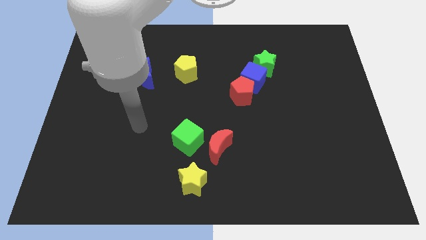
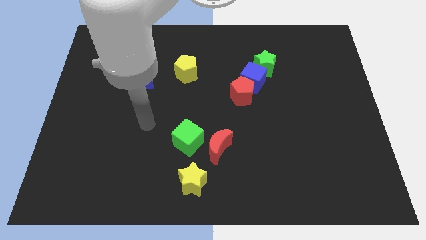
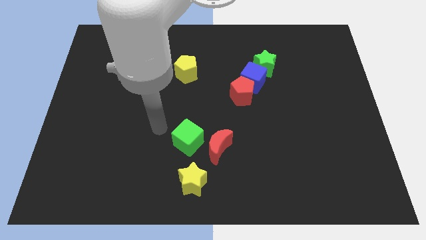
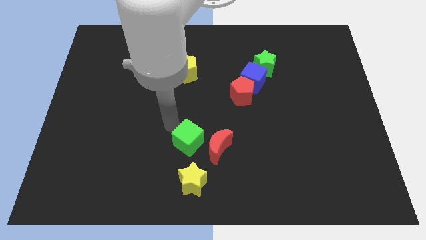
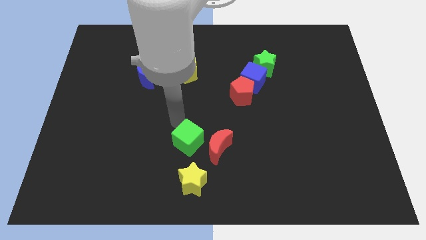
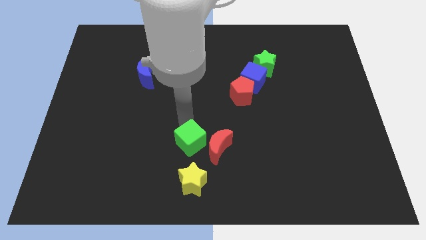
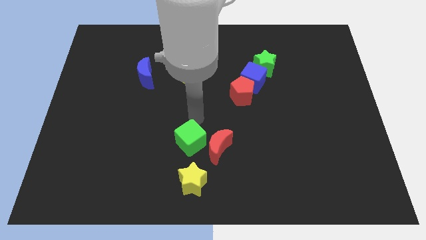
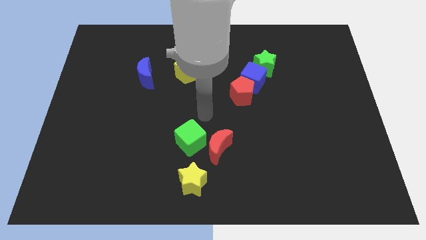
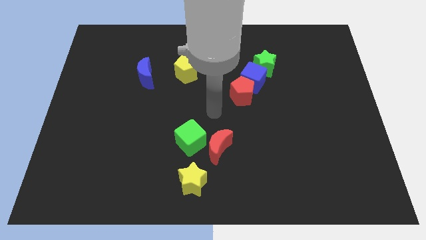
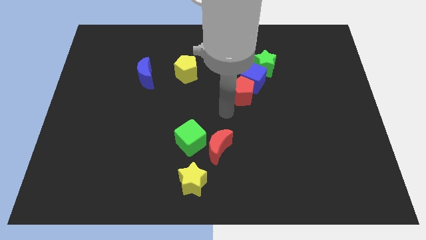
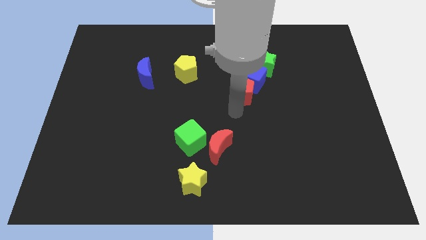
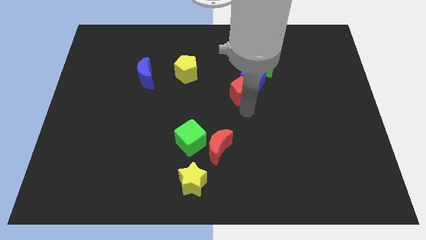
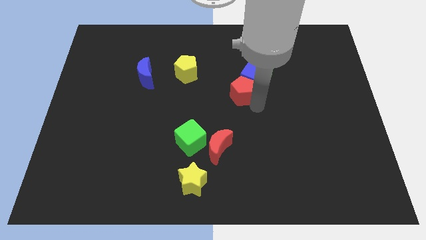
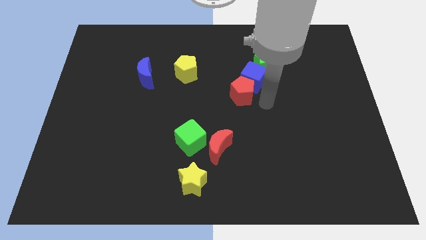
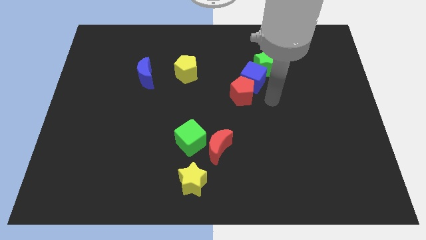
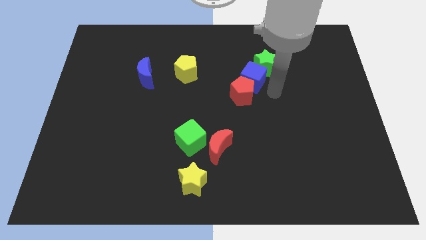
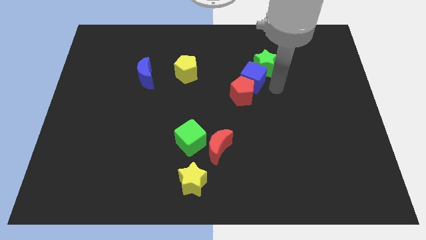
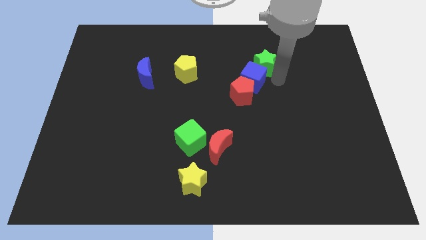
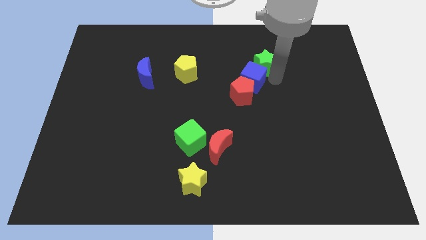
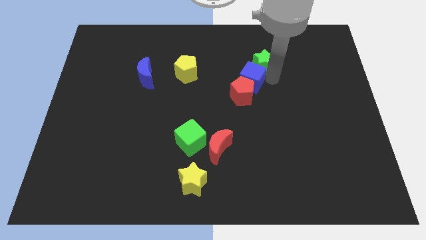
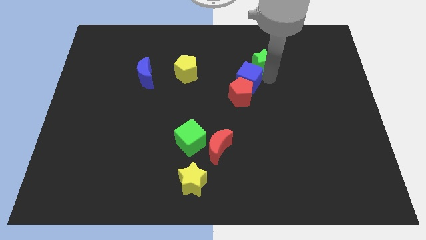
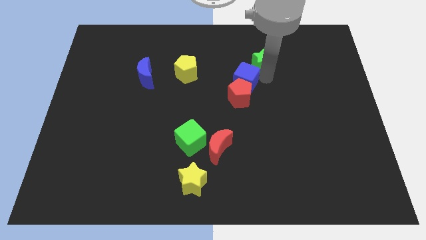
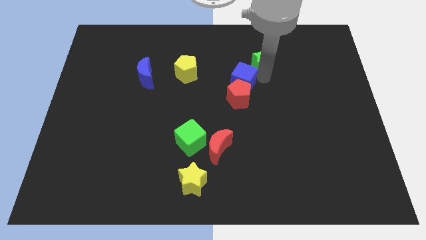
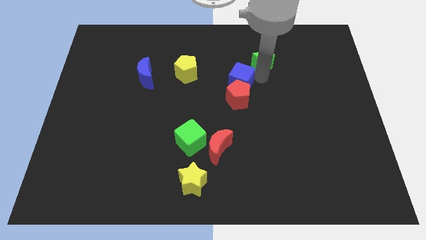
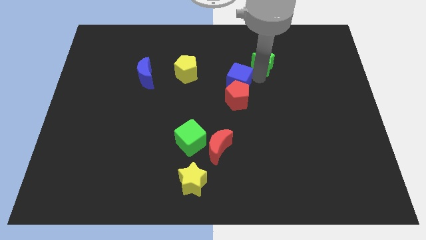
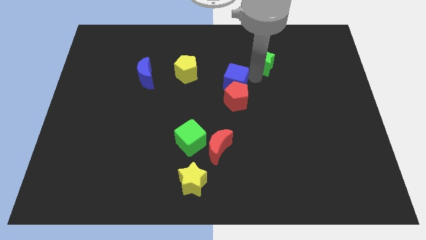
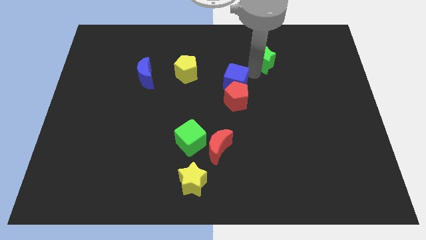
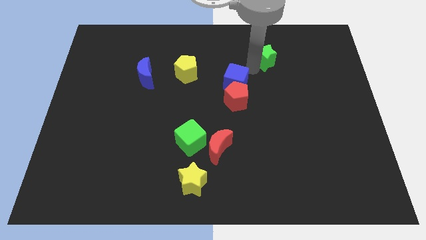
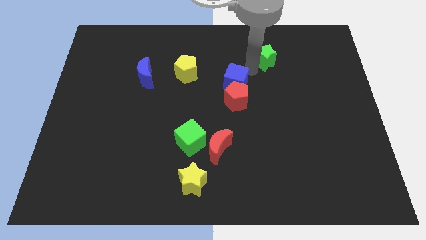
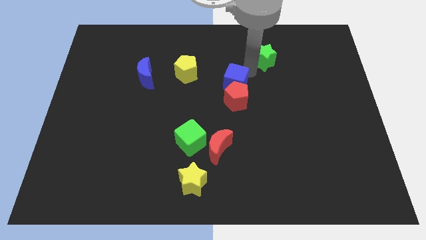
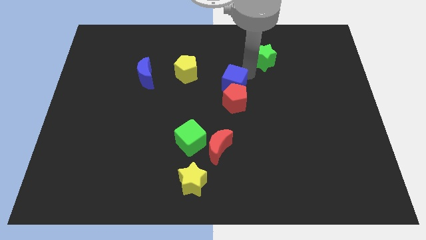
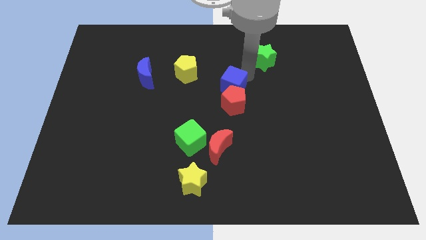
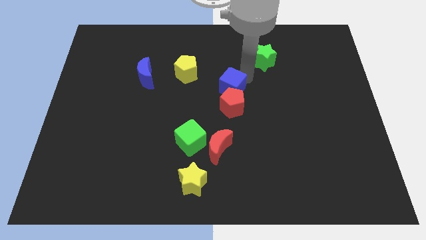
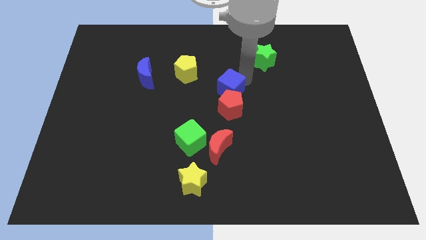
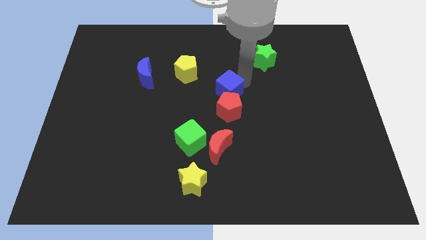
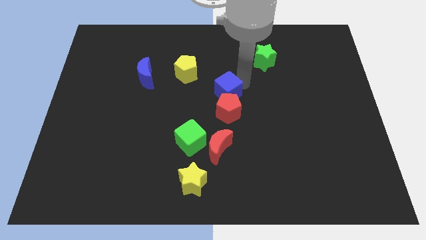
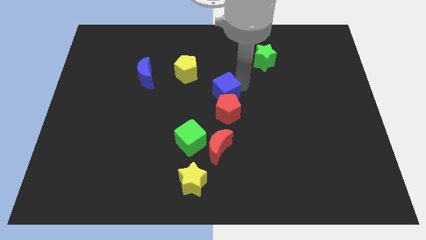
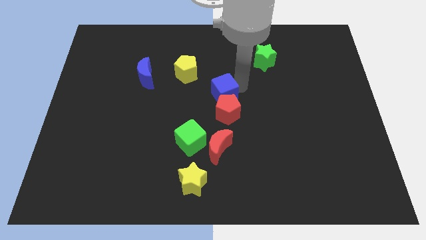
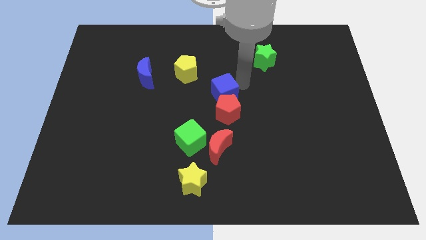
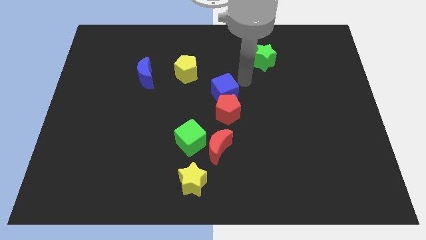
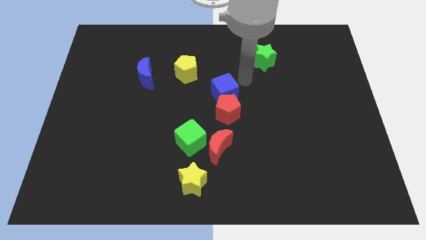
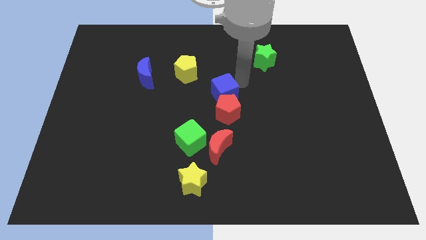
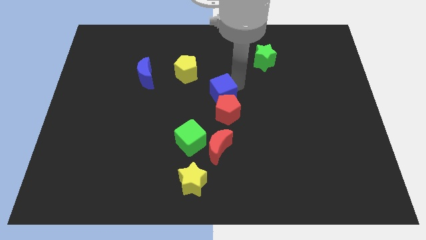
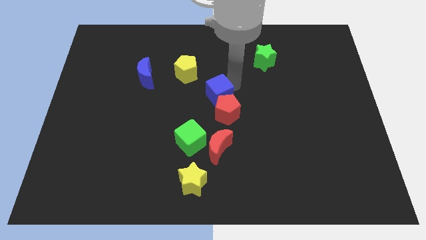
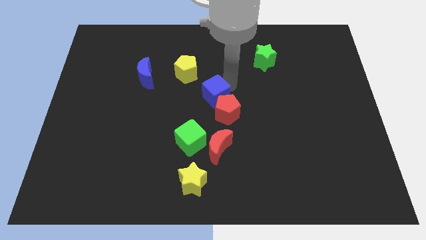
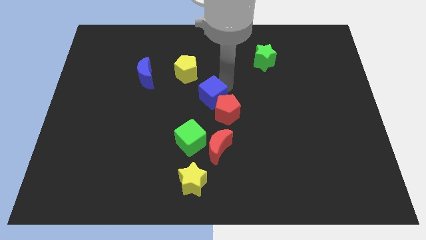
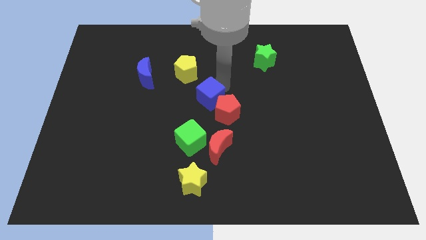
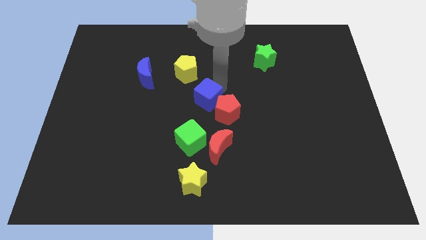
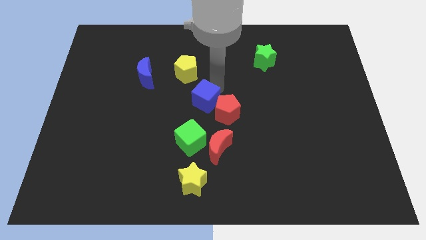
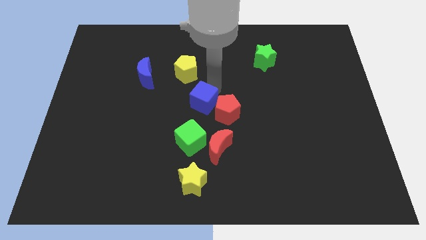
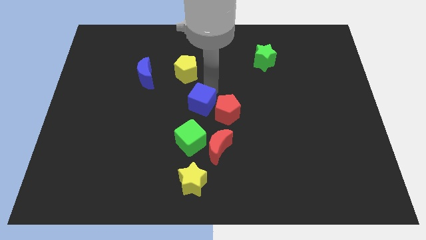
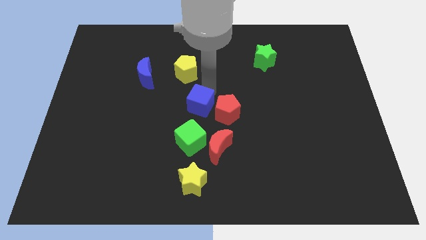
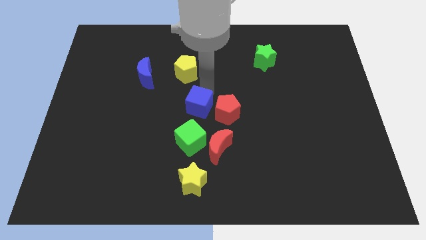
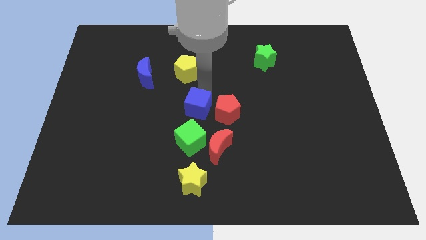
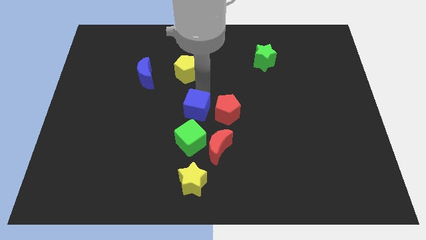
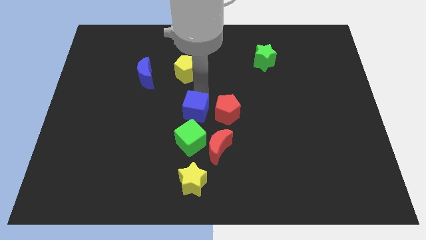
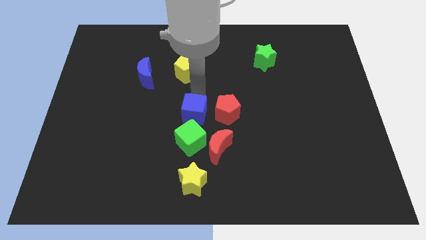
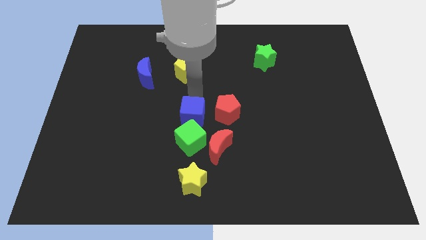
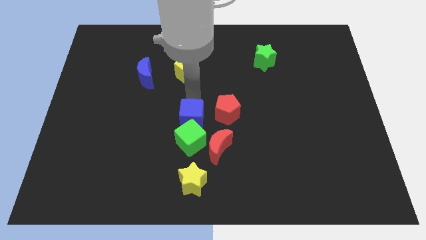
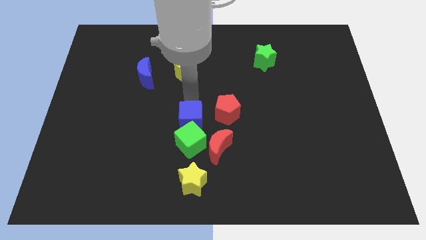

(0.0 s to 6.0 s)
push the blue cube to the green cube
